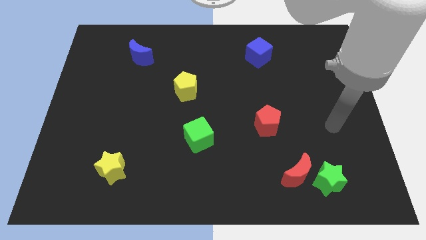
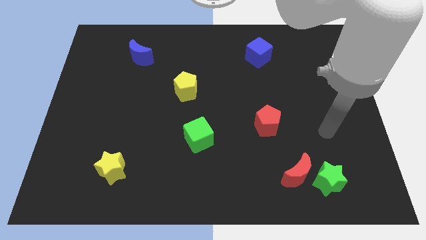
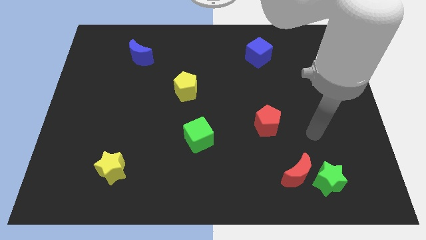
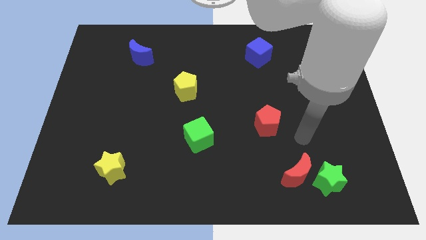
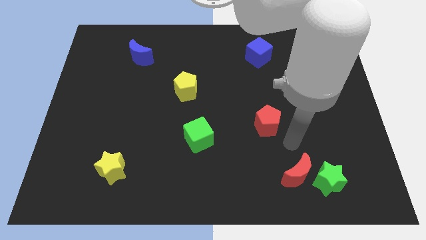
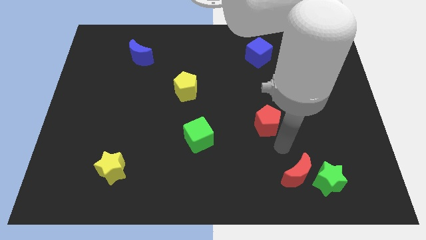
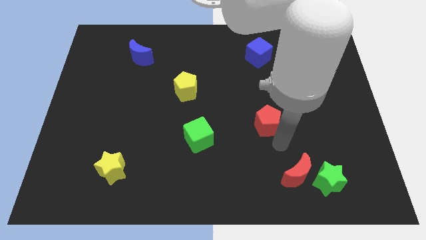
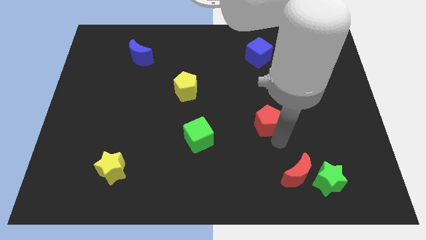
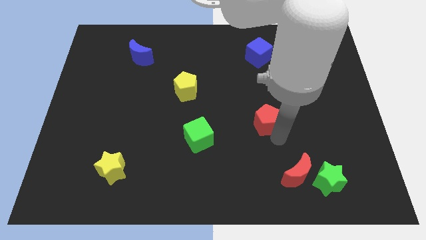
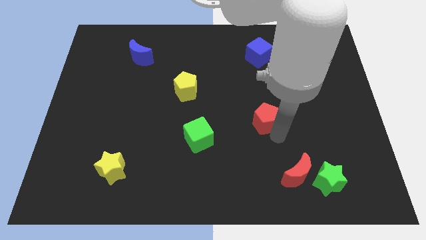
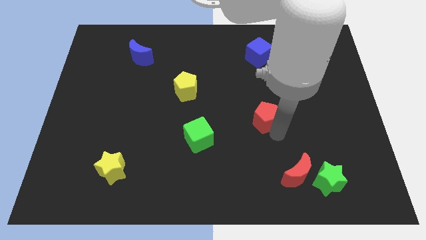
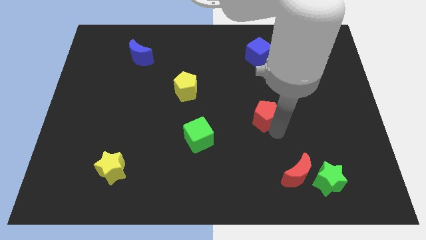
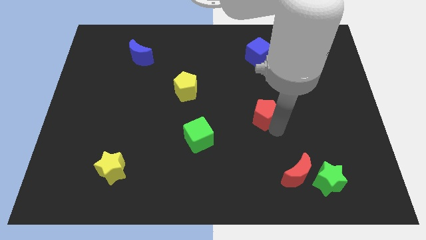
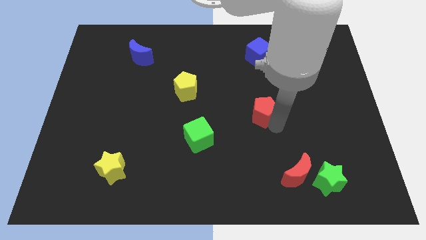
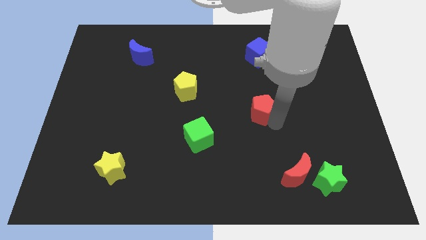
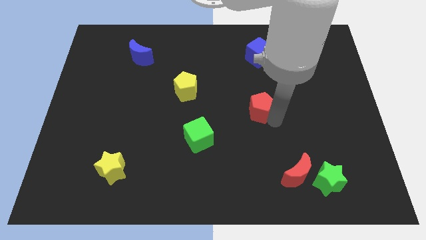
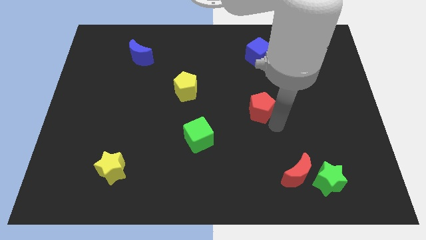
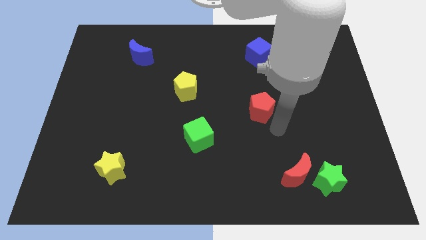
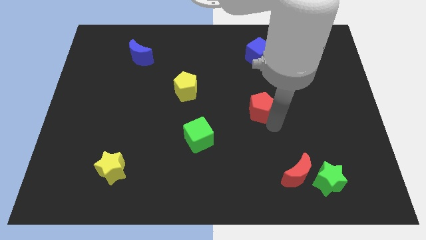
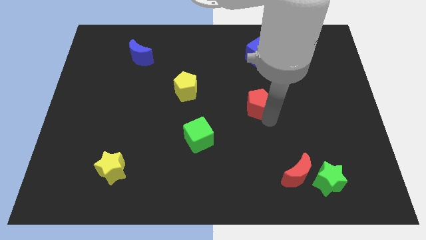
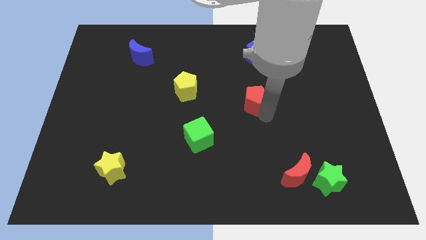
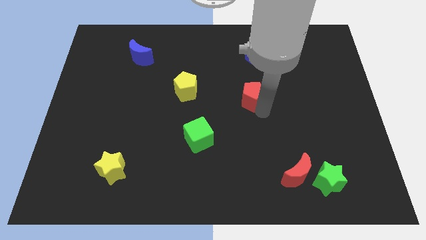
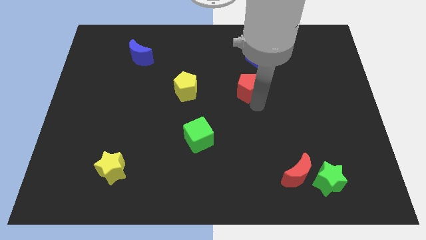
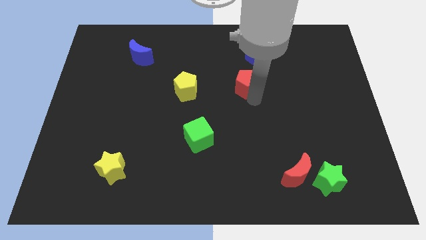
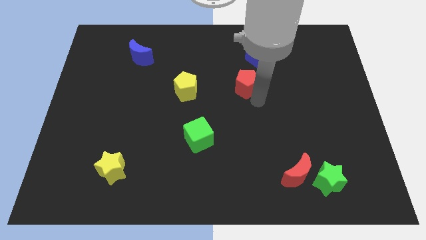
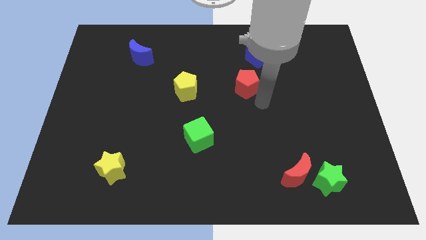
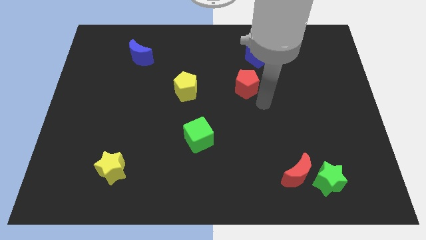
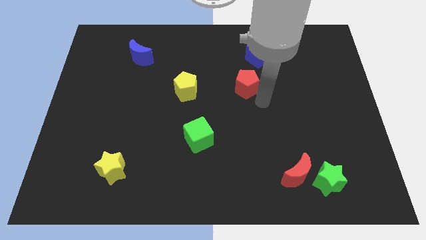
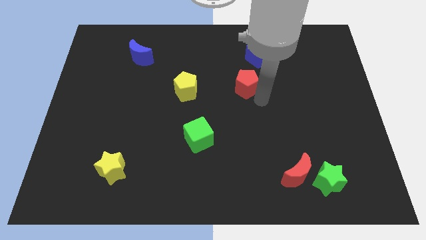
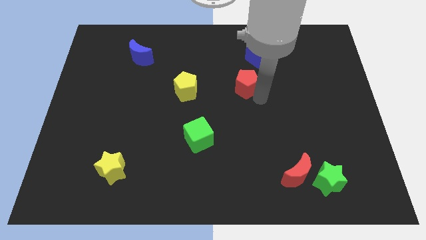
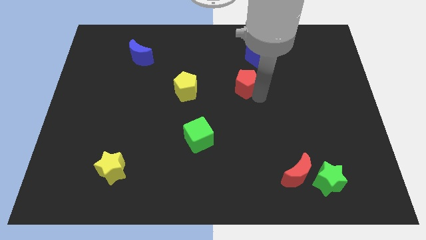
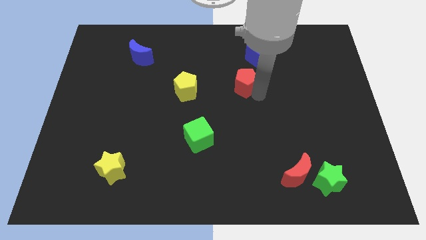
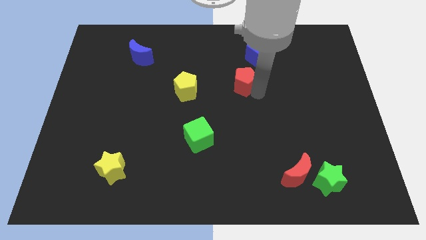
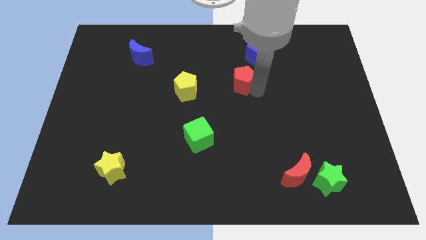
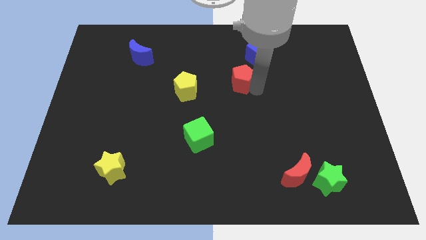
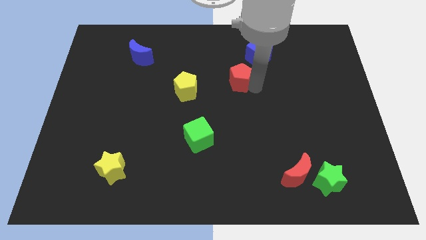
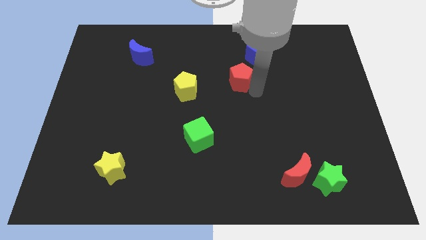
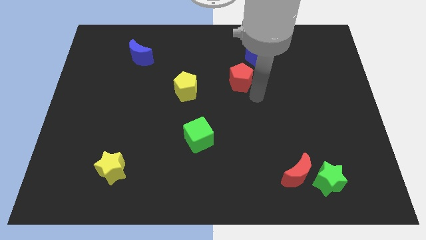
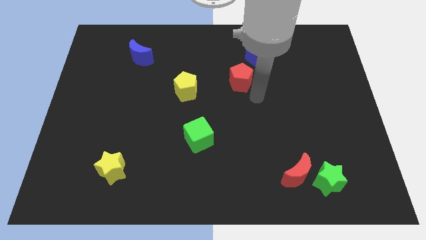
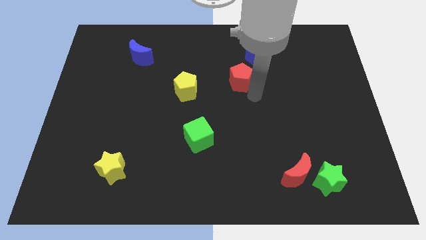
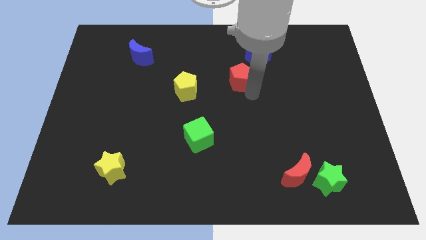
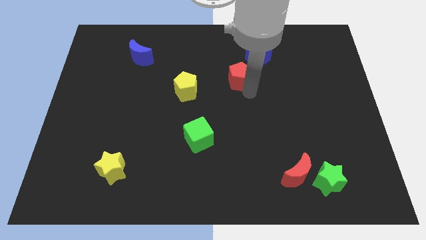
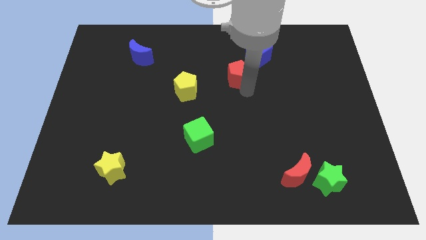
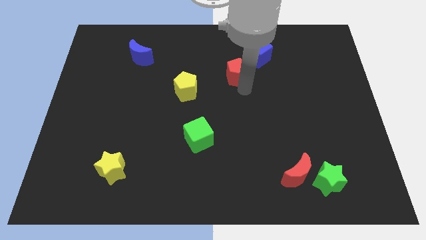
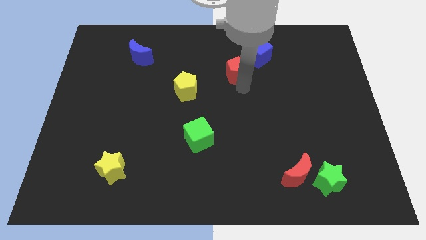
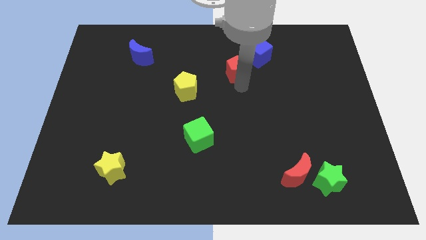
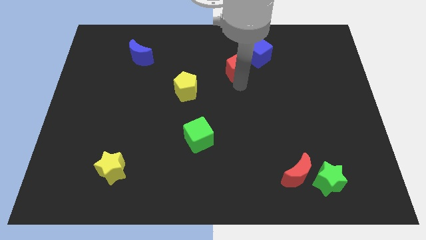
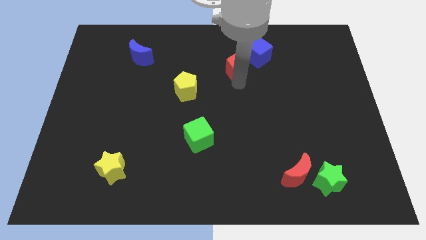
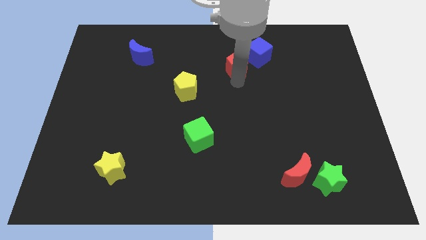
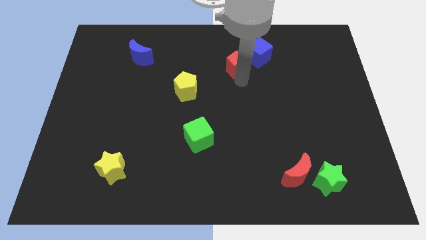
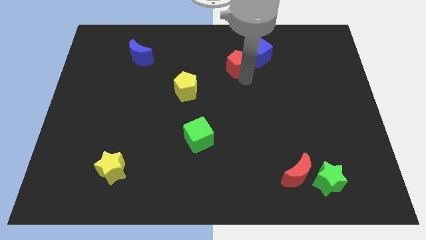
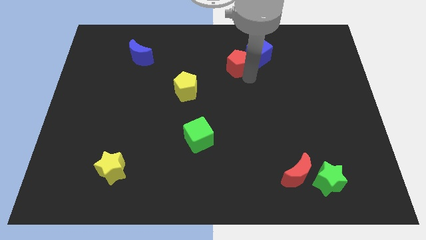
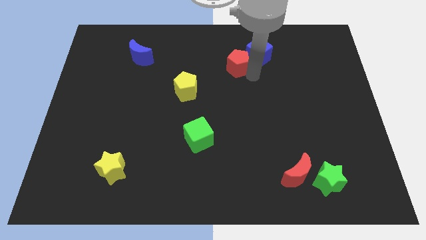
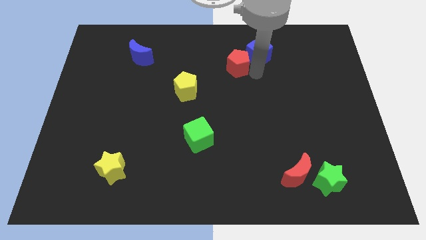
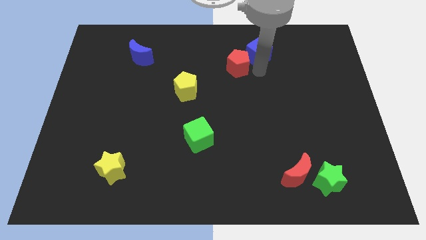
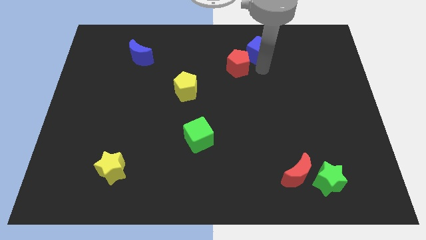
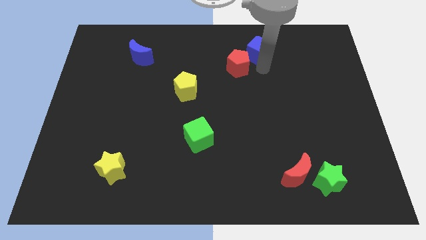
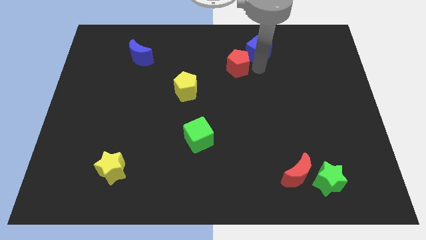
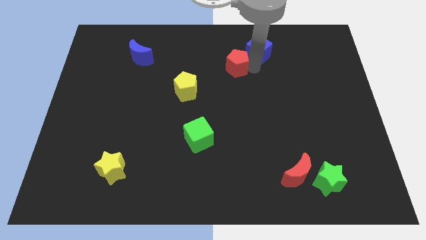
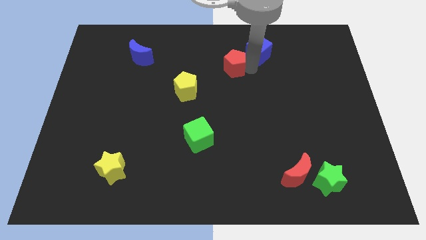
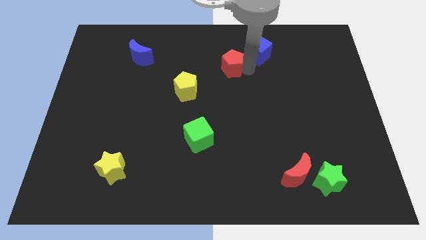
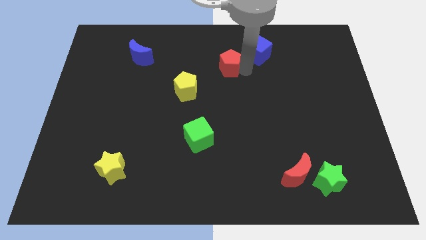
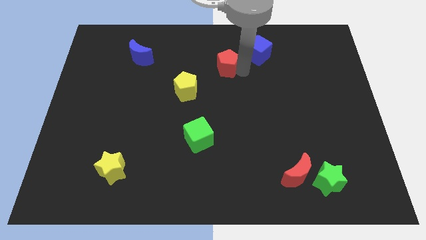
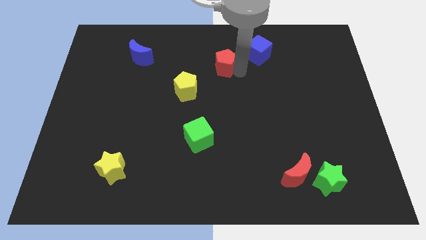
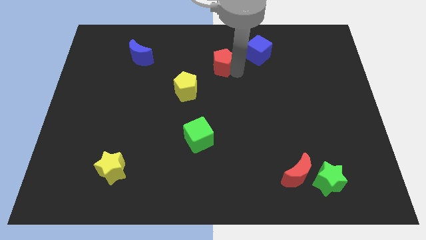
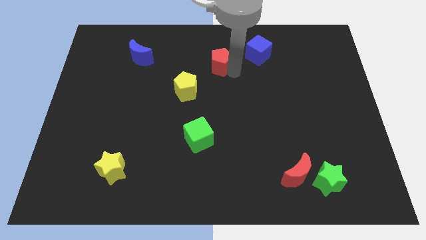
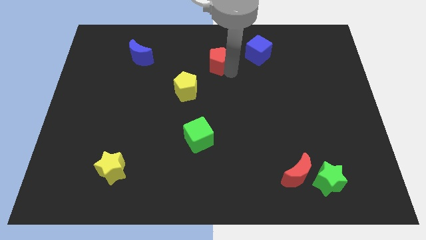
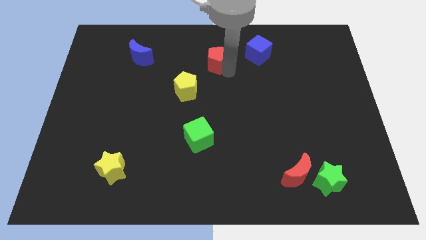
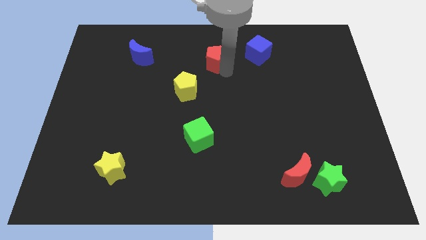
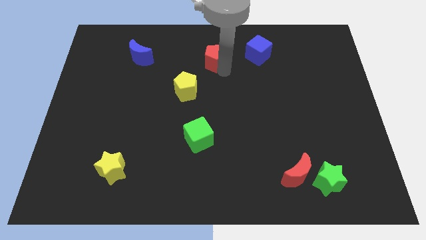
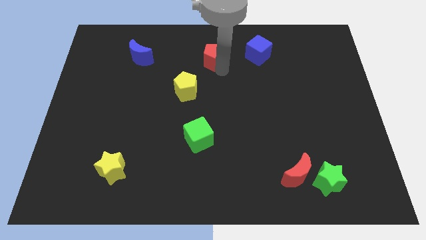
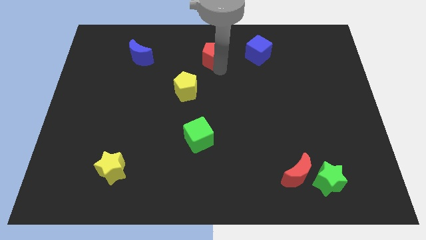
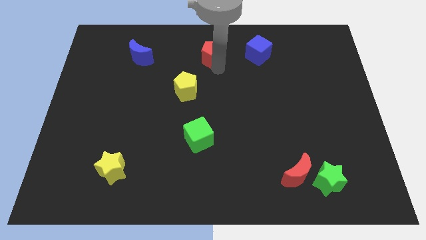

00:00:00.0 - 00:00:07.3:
push the red pentagon to the top side
